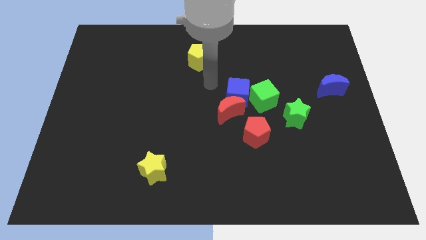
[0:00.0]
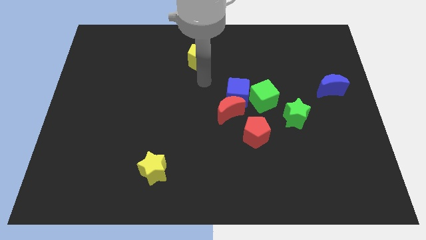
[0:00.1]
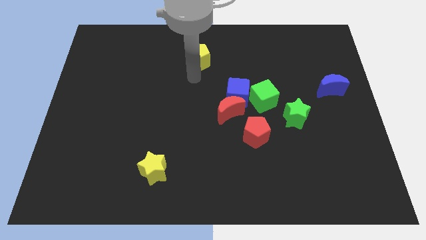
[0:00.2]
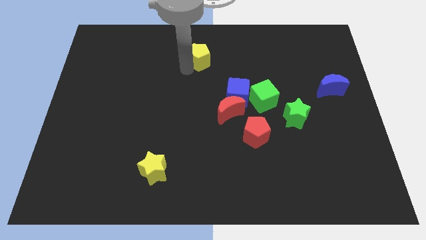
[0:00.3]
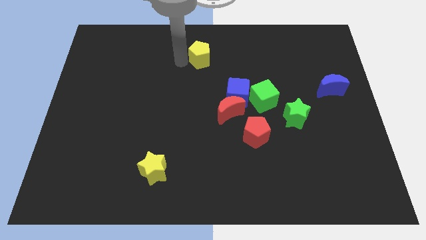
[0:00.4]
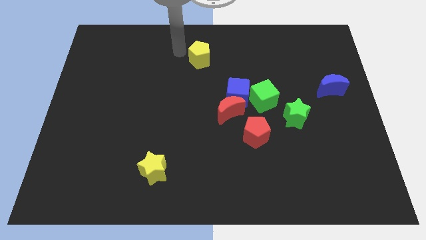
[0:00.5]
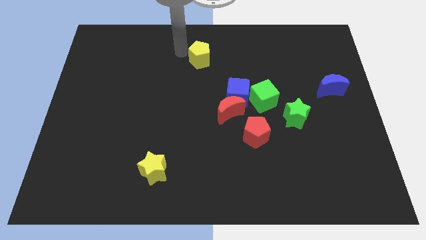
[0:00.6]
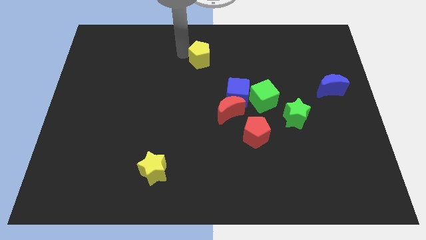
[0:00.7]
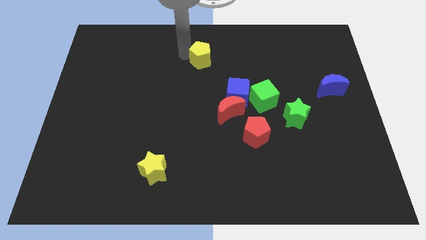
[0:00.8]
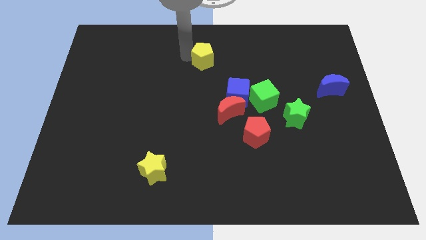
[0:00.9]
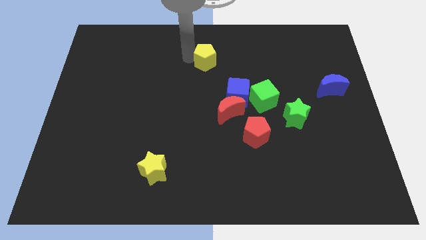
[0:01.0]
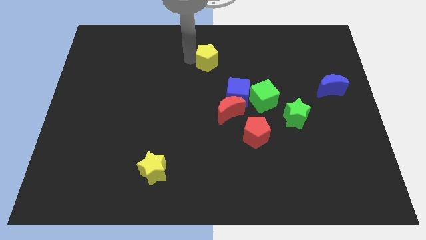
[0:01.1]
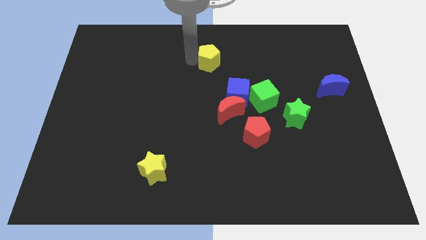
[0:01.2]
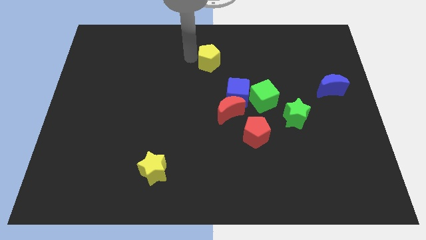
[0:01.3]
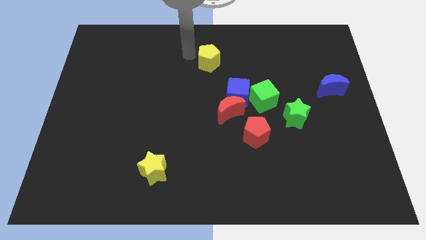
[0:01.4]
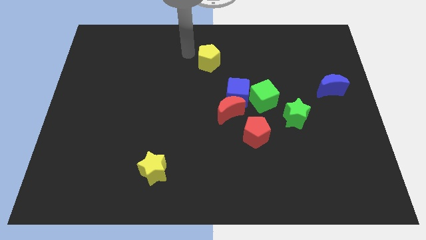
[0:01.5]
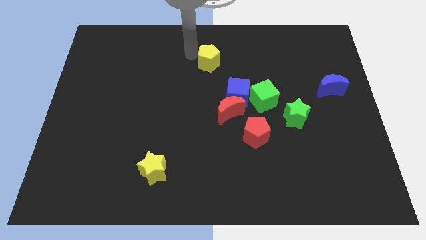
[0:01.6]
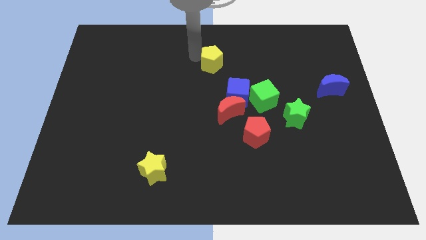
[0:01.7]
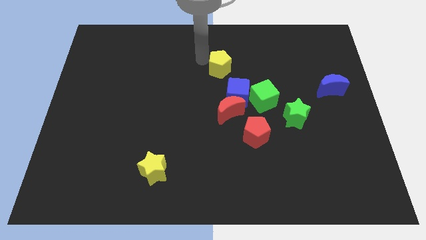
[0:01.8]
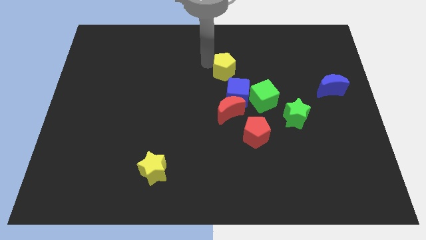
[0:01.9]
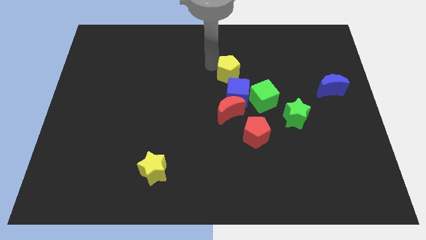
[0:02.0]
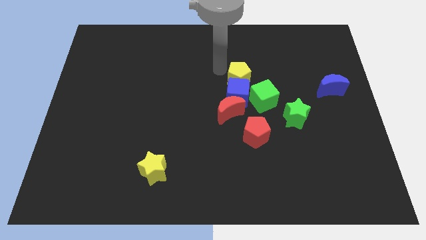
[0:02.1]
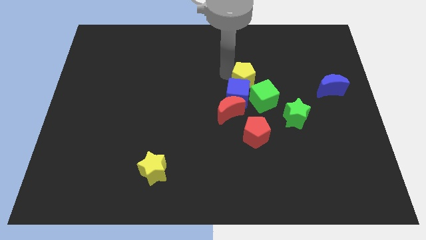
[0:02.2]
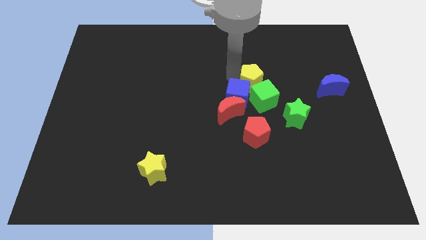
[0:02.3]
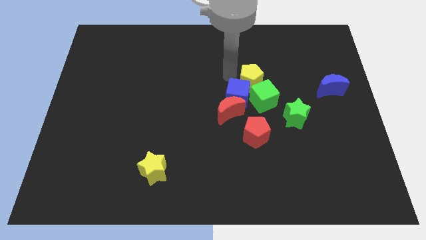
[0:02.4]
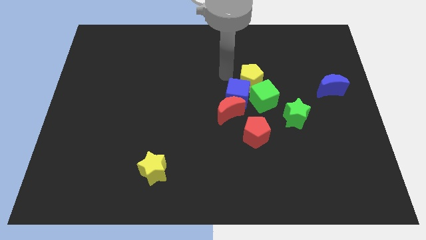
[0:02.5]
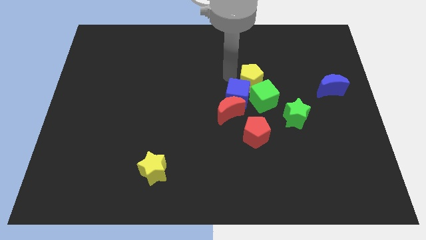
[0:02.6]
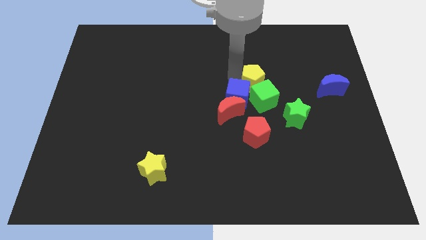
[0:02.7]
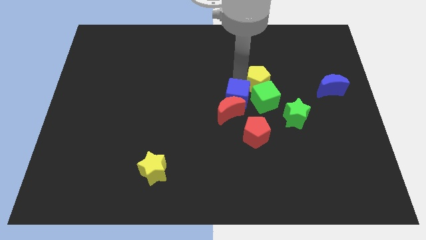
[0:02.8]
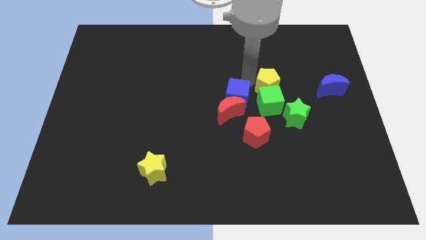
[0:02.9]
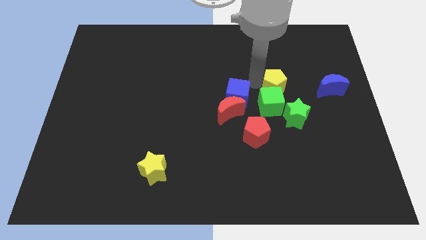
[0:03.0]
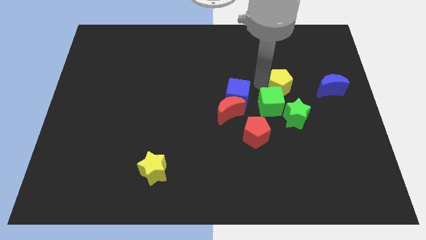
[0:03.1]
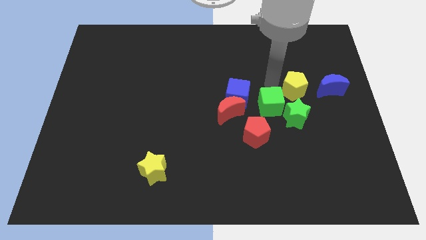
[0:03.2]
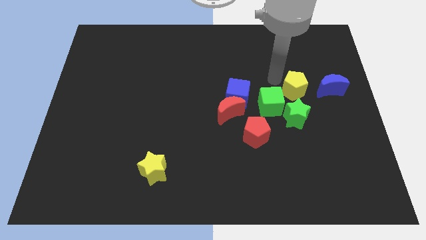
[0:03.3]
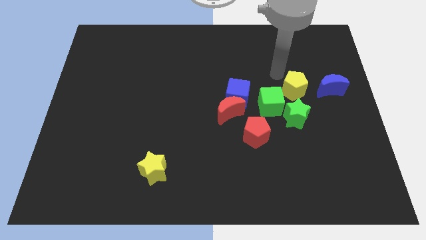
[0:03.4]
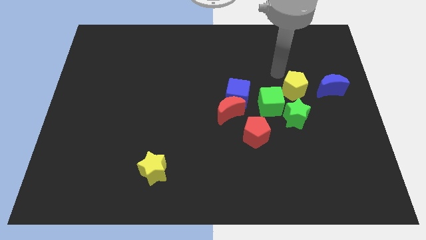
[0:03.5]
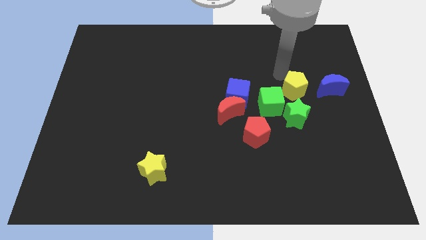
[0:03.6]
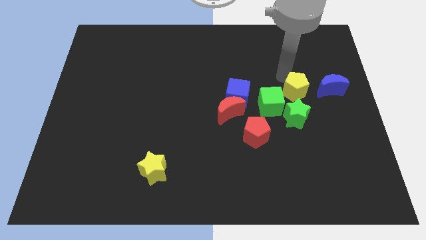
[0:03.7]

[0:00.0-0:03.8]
move the yellow pentagon downwards and to the right diagonally

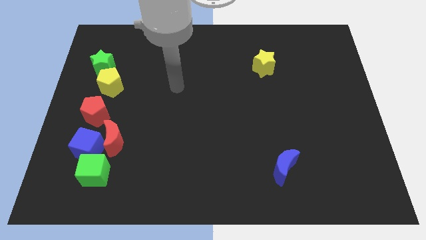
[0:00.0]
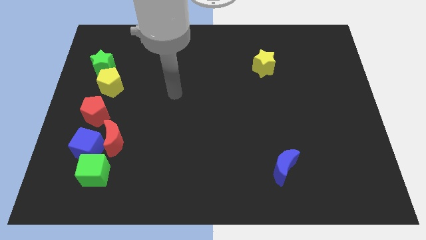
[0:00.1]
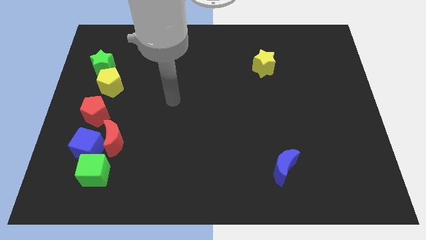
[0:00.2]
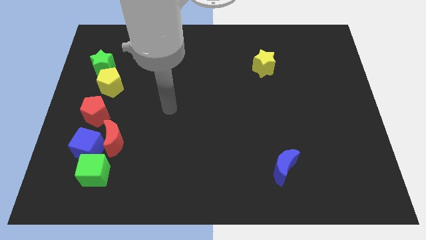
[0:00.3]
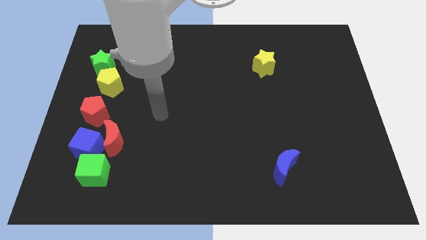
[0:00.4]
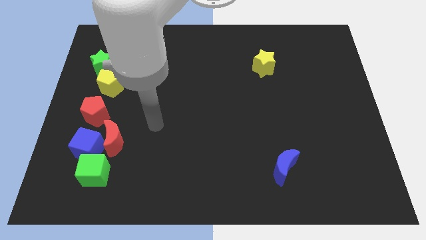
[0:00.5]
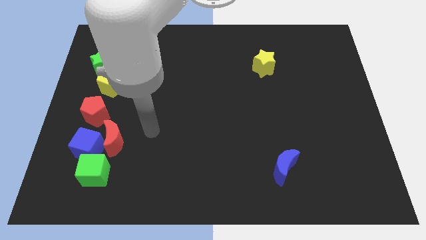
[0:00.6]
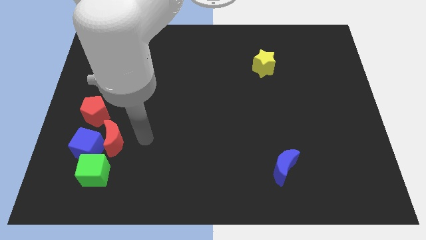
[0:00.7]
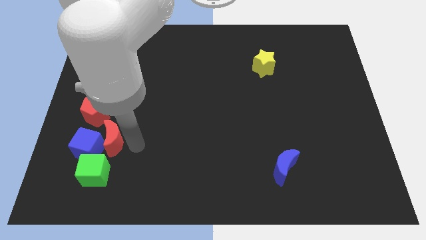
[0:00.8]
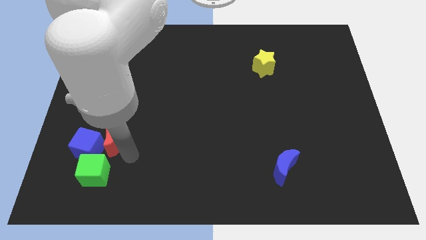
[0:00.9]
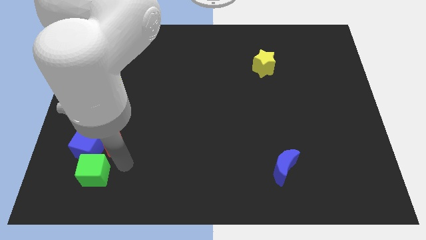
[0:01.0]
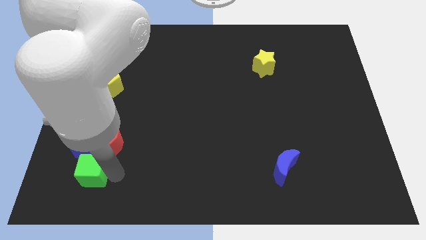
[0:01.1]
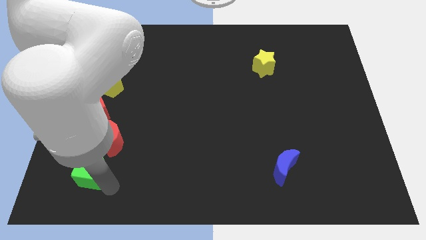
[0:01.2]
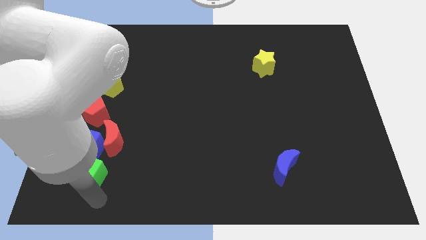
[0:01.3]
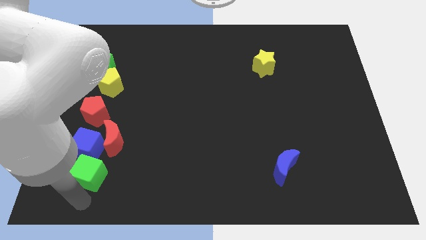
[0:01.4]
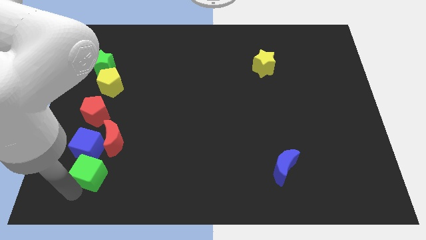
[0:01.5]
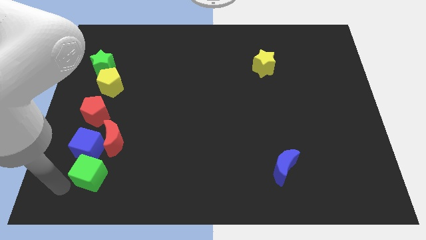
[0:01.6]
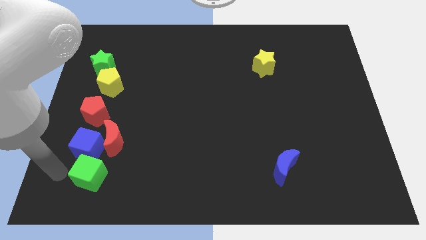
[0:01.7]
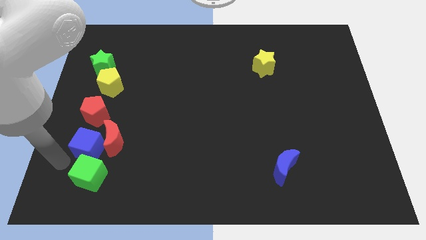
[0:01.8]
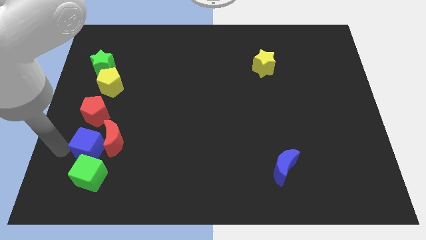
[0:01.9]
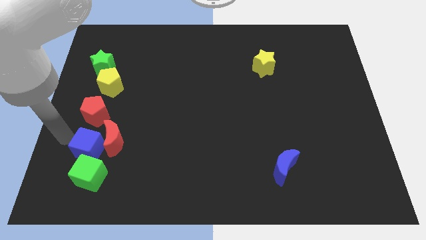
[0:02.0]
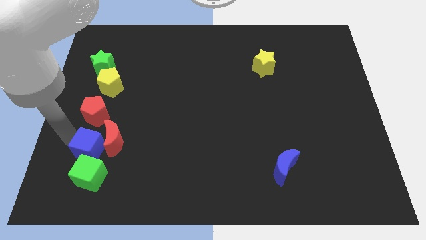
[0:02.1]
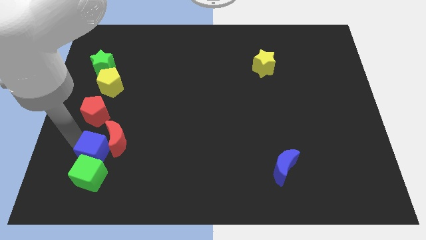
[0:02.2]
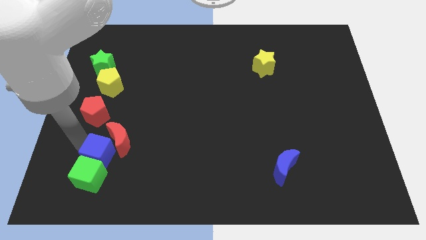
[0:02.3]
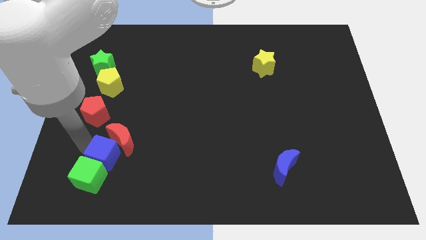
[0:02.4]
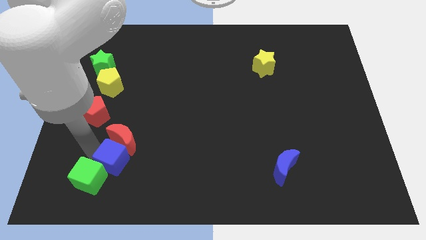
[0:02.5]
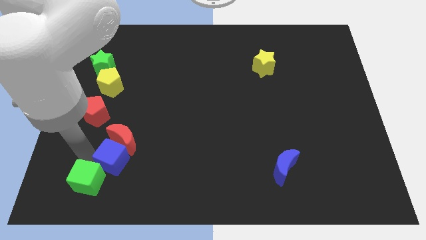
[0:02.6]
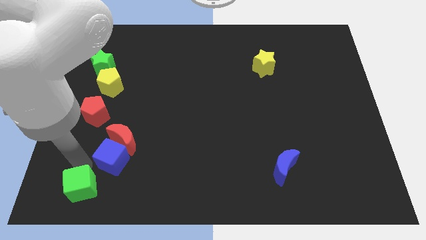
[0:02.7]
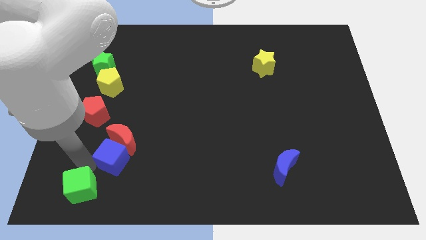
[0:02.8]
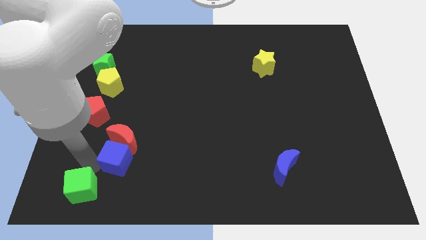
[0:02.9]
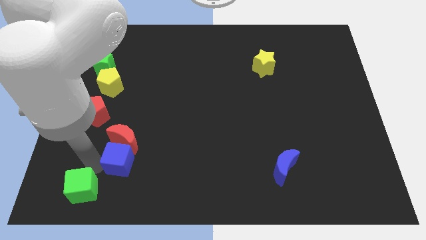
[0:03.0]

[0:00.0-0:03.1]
push the blue cube to the right somewhat

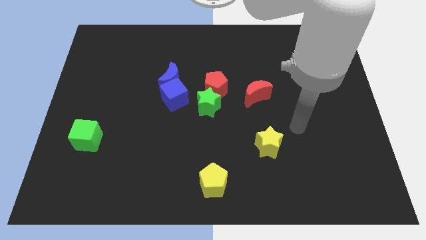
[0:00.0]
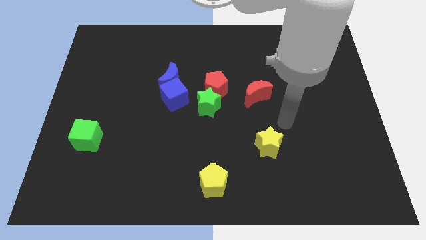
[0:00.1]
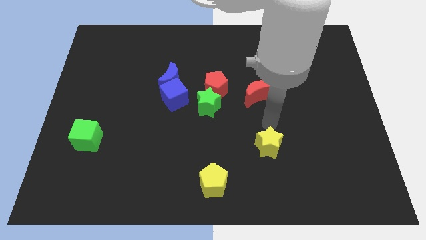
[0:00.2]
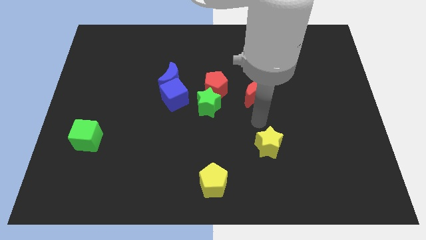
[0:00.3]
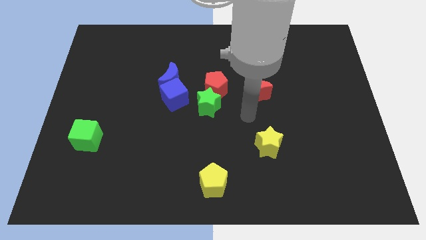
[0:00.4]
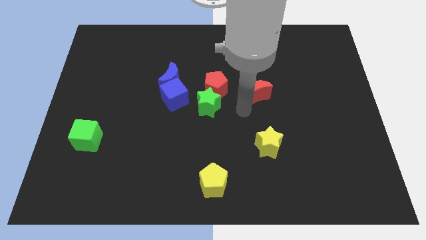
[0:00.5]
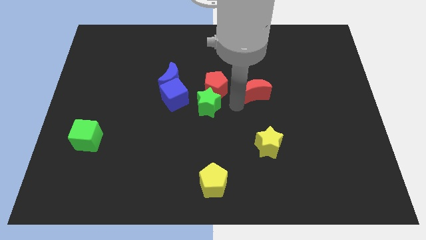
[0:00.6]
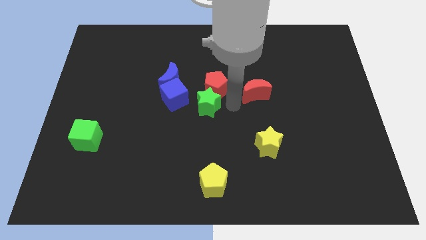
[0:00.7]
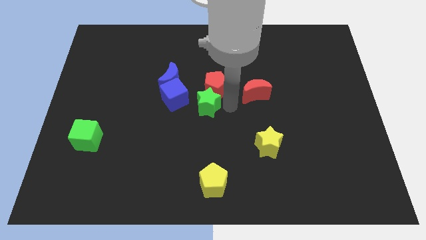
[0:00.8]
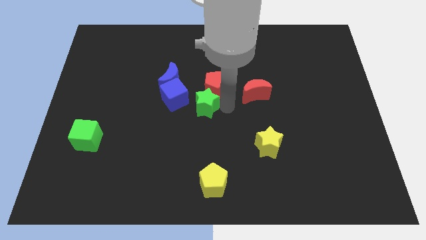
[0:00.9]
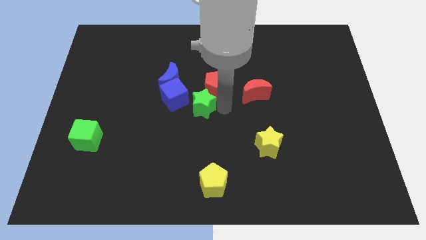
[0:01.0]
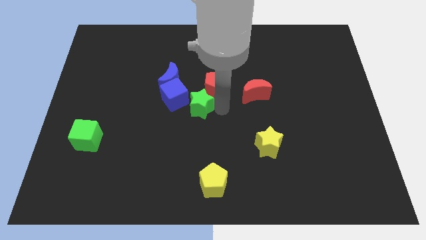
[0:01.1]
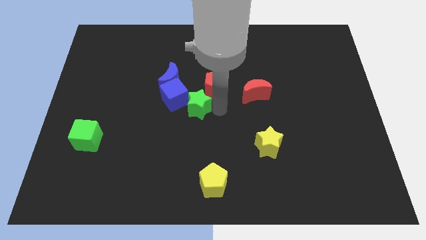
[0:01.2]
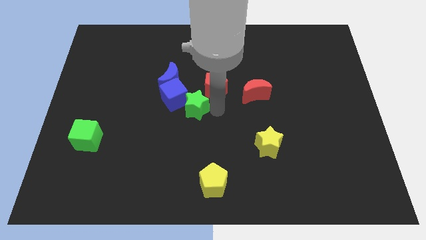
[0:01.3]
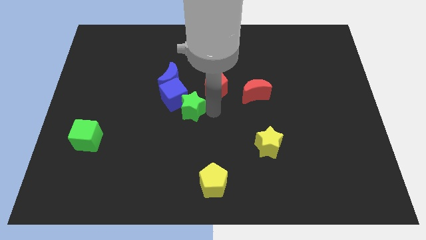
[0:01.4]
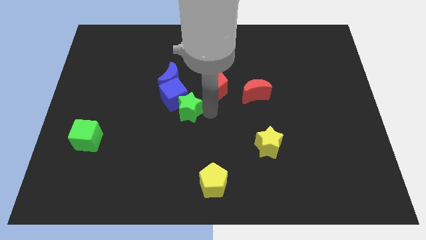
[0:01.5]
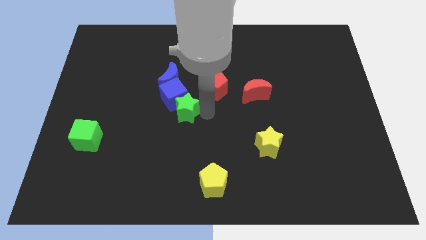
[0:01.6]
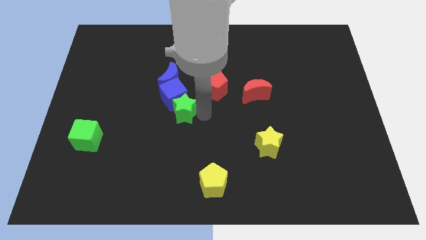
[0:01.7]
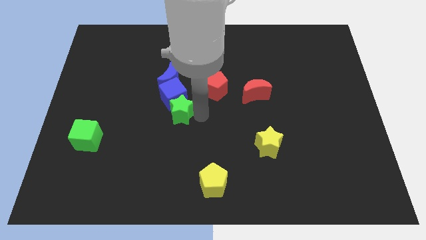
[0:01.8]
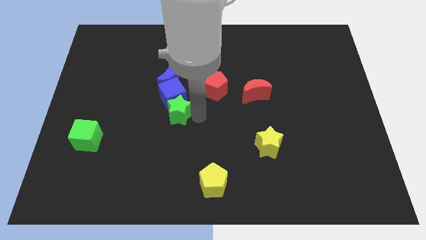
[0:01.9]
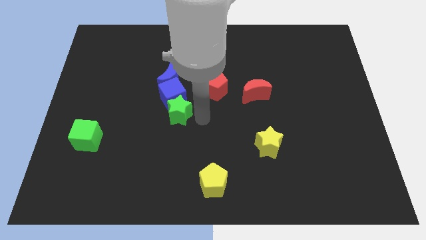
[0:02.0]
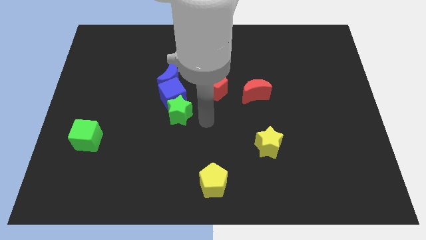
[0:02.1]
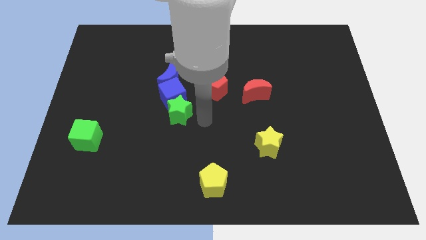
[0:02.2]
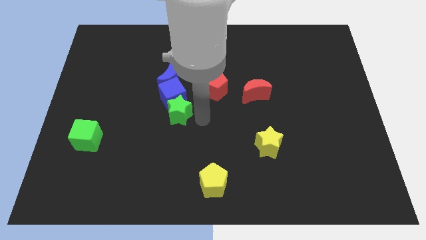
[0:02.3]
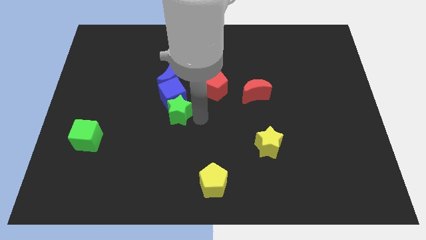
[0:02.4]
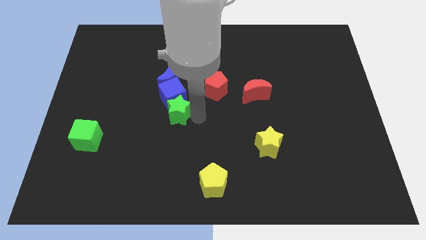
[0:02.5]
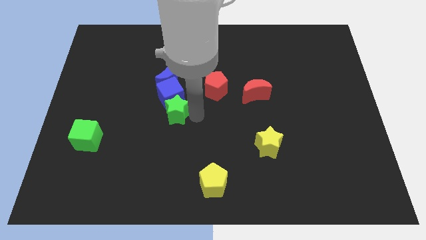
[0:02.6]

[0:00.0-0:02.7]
slightly move the green star left
